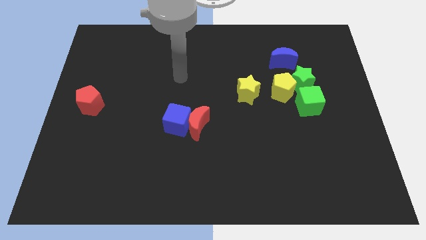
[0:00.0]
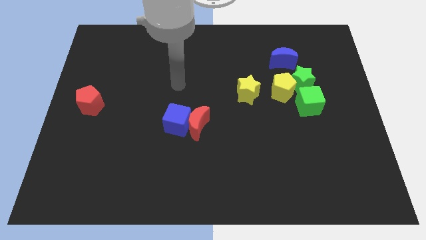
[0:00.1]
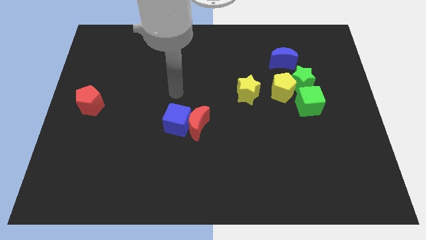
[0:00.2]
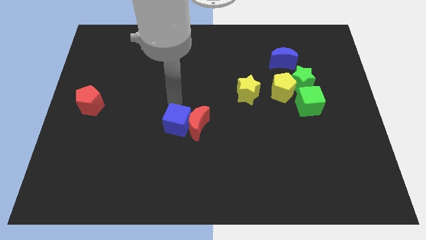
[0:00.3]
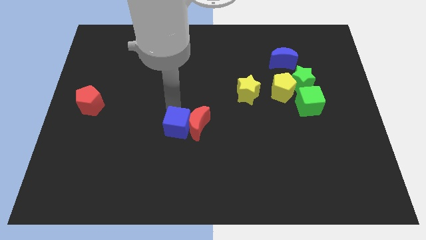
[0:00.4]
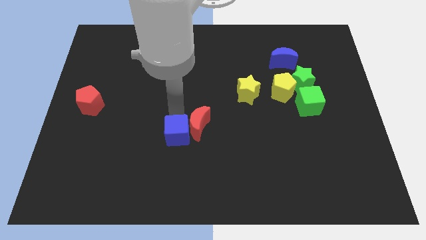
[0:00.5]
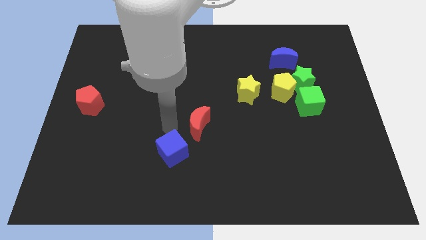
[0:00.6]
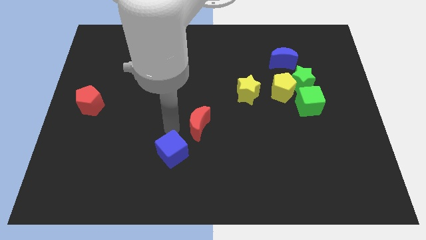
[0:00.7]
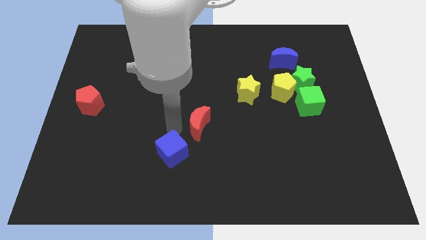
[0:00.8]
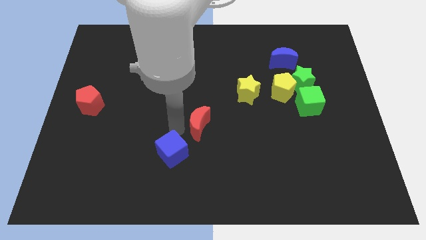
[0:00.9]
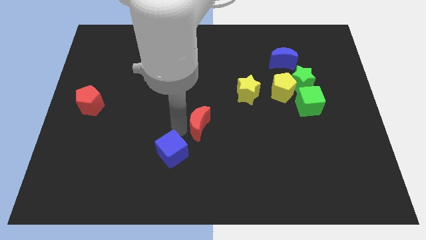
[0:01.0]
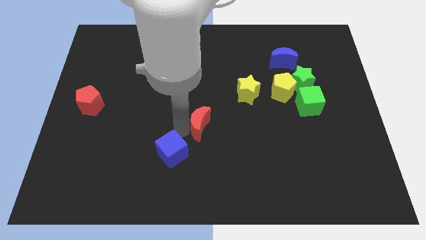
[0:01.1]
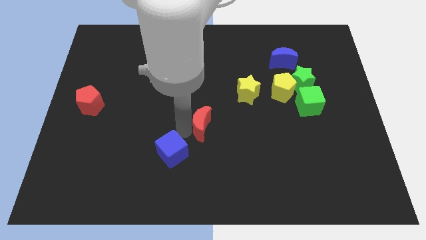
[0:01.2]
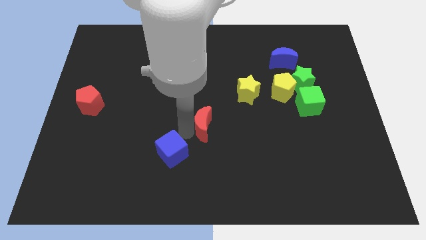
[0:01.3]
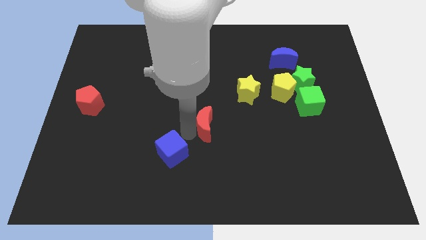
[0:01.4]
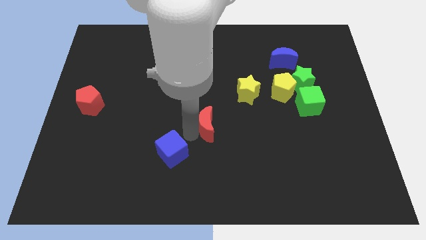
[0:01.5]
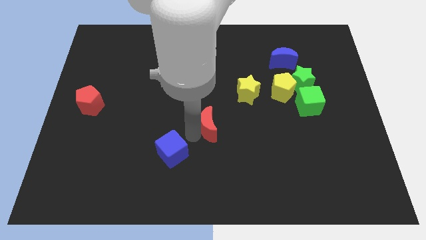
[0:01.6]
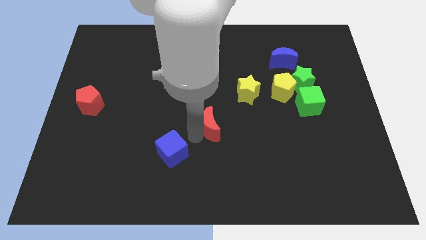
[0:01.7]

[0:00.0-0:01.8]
pull the red moon apart from the blue cube

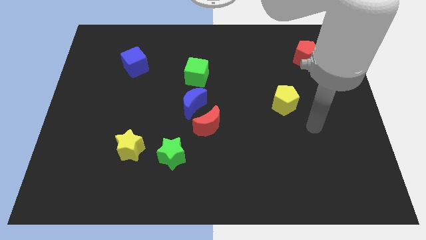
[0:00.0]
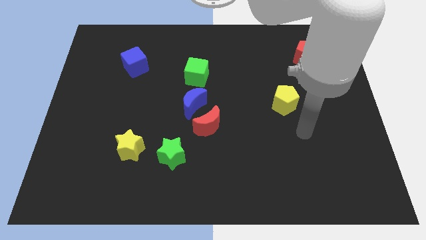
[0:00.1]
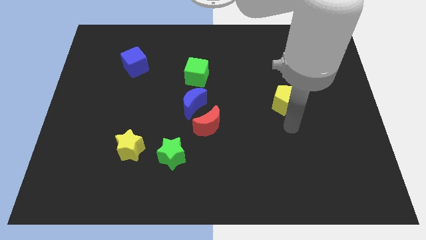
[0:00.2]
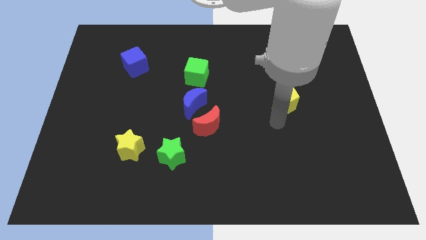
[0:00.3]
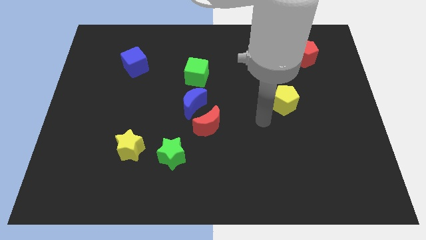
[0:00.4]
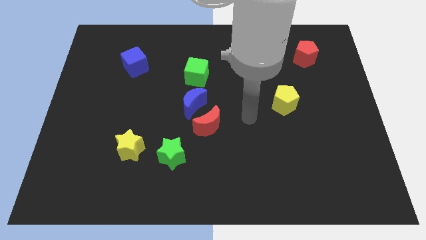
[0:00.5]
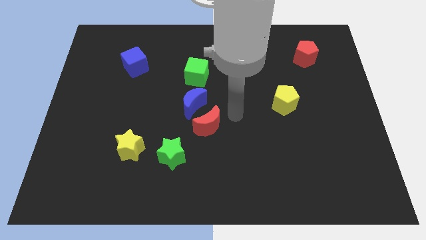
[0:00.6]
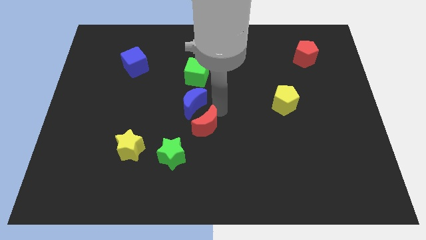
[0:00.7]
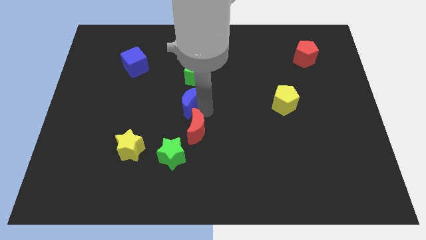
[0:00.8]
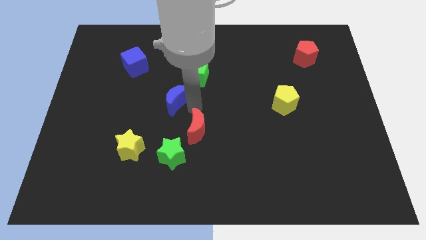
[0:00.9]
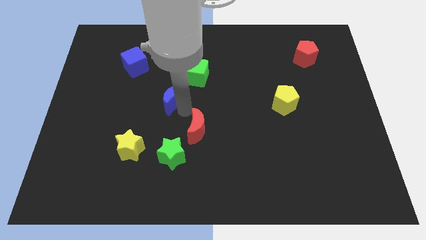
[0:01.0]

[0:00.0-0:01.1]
move the red moon away from the blue moon

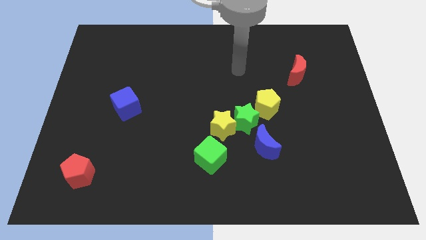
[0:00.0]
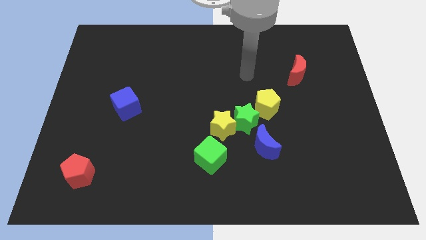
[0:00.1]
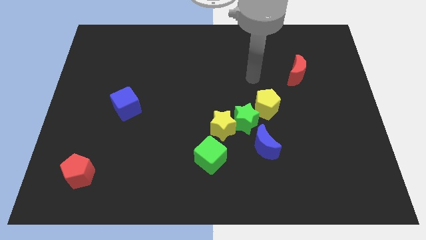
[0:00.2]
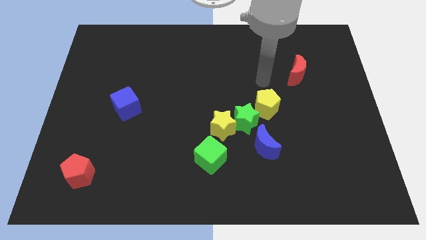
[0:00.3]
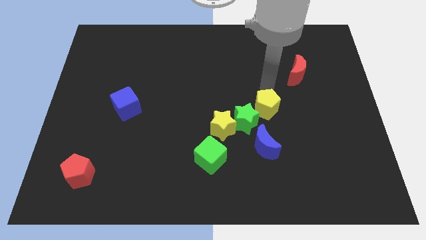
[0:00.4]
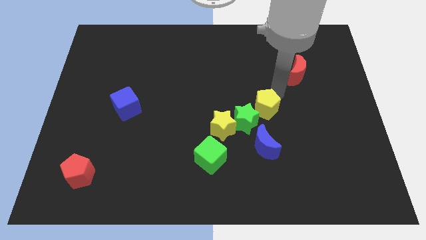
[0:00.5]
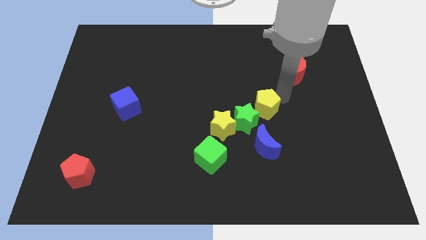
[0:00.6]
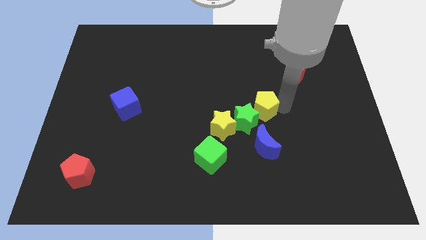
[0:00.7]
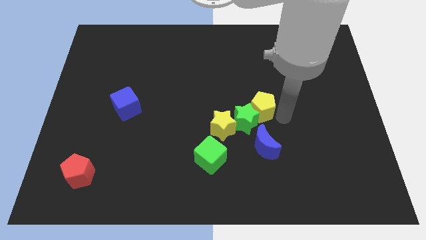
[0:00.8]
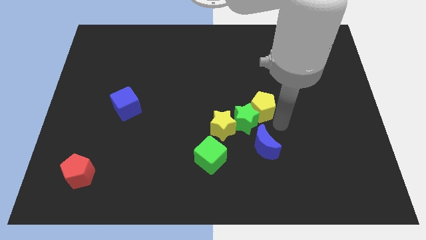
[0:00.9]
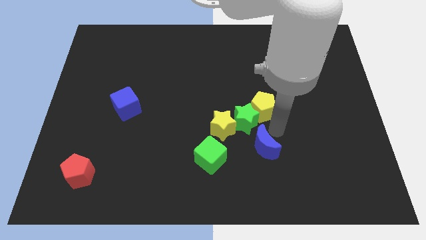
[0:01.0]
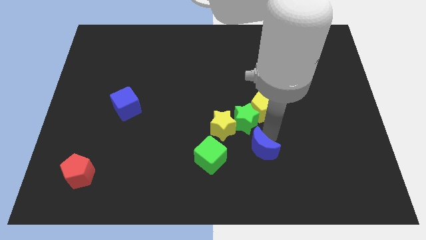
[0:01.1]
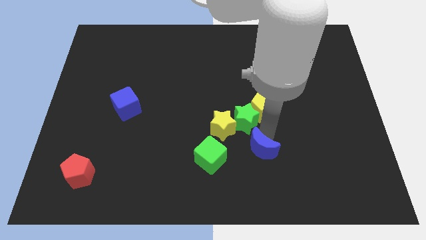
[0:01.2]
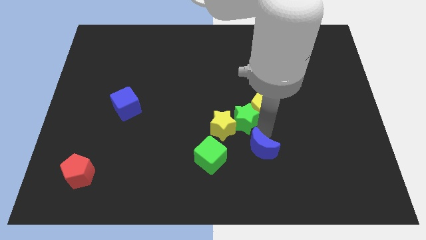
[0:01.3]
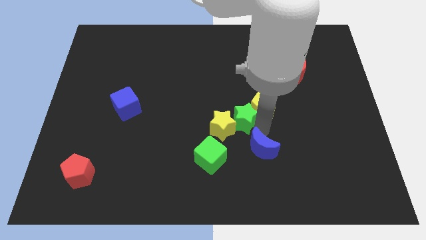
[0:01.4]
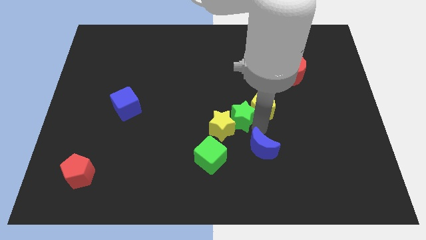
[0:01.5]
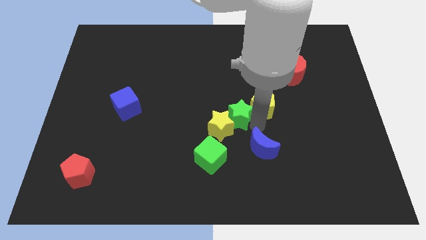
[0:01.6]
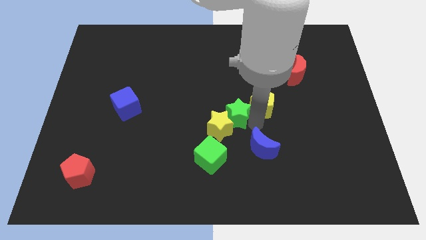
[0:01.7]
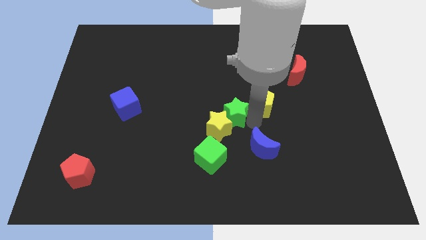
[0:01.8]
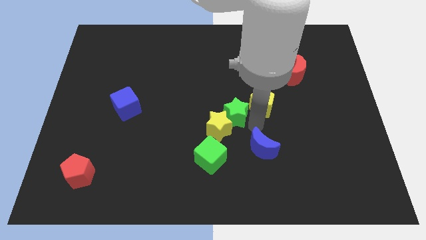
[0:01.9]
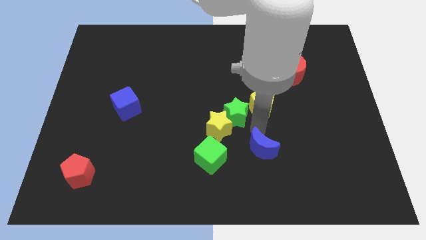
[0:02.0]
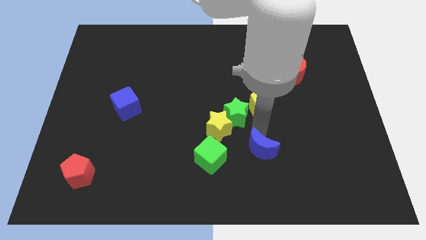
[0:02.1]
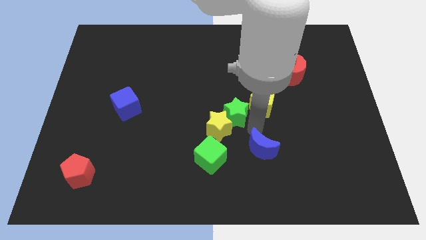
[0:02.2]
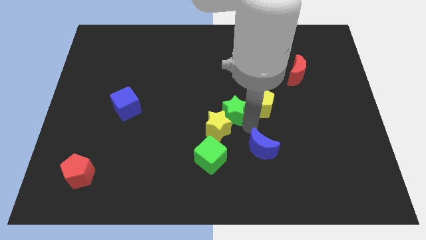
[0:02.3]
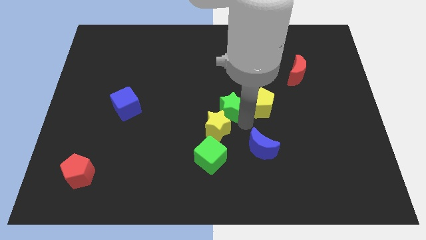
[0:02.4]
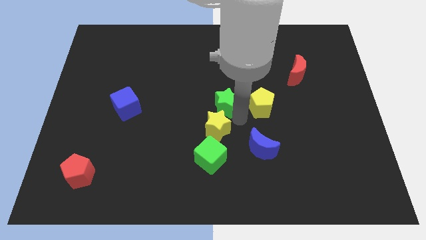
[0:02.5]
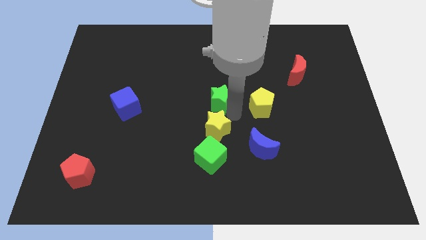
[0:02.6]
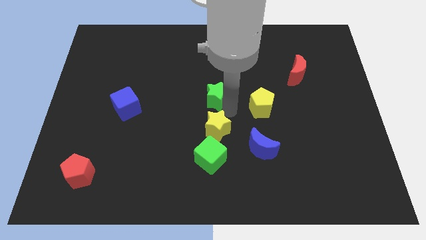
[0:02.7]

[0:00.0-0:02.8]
pull the green star apart from the group

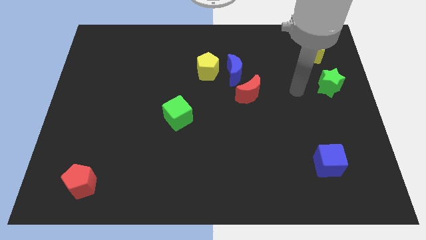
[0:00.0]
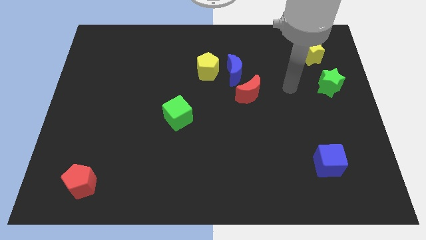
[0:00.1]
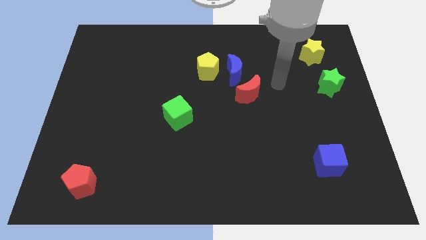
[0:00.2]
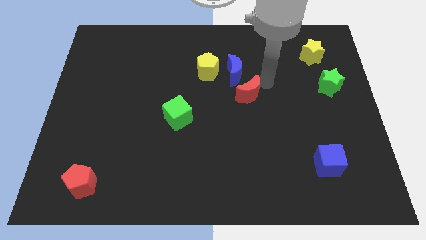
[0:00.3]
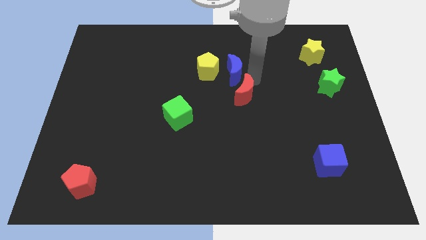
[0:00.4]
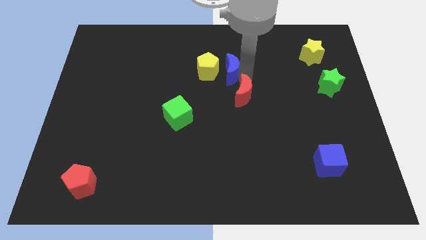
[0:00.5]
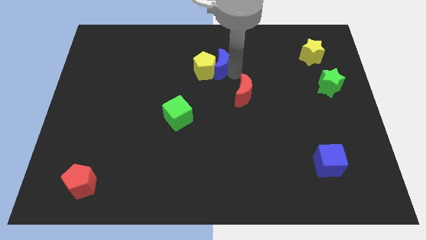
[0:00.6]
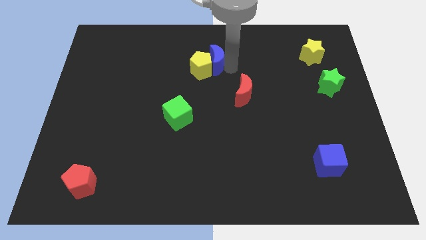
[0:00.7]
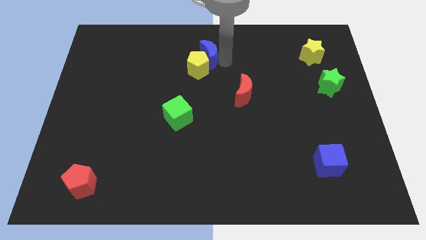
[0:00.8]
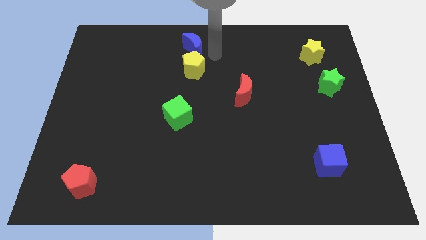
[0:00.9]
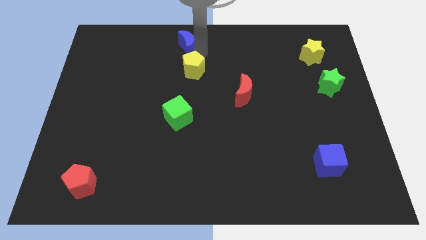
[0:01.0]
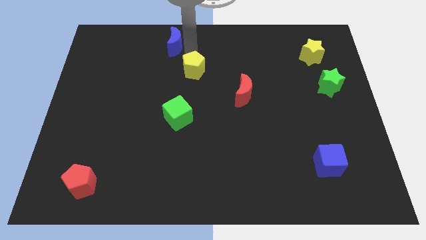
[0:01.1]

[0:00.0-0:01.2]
move the yellow pentagon away from the blue moon

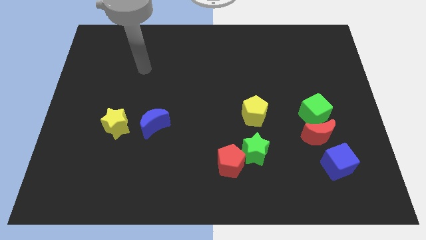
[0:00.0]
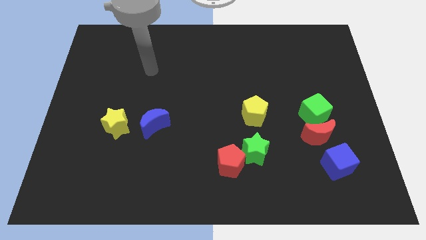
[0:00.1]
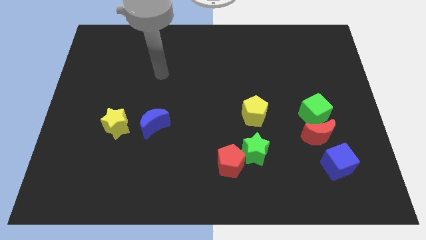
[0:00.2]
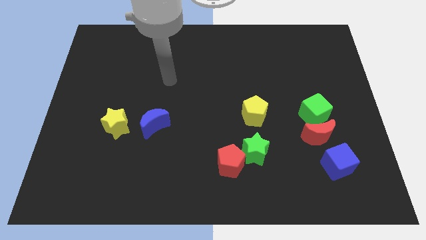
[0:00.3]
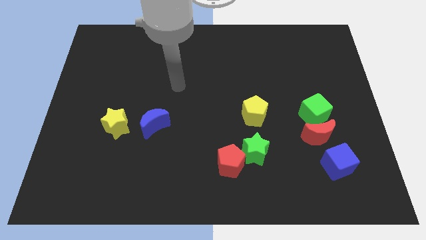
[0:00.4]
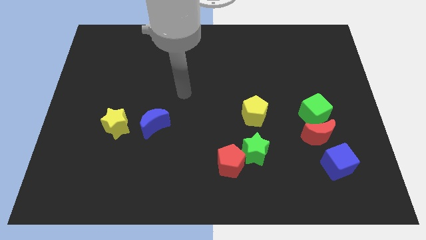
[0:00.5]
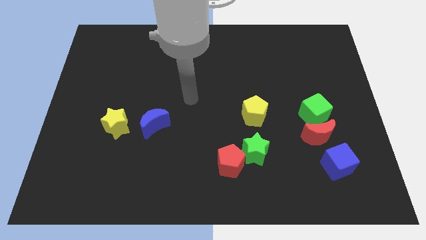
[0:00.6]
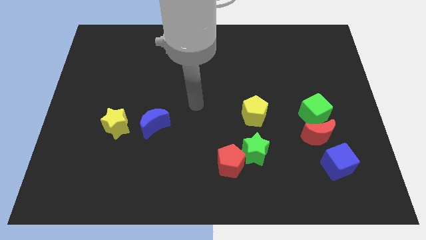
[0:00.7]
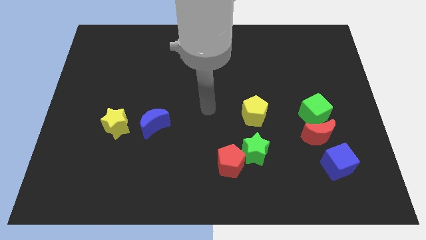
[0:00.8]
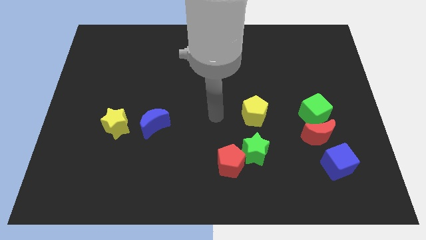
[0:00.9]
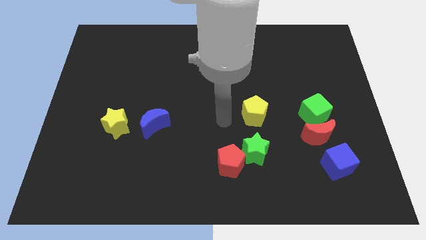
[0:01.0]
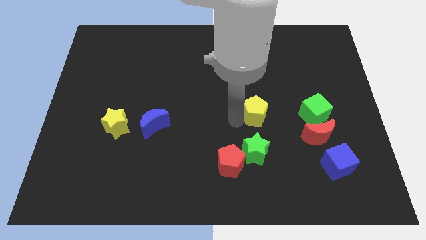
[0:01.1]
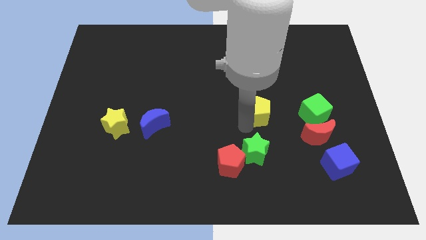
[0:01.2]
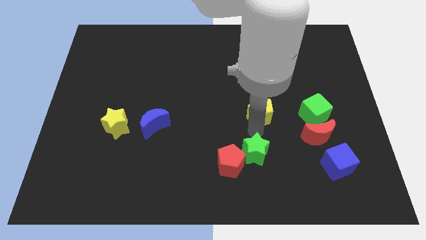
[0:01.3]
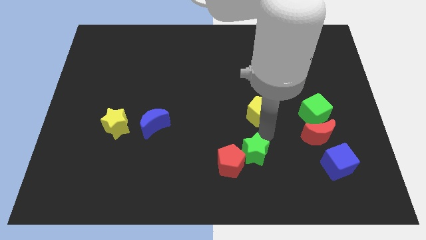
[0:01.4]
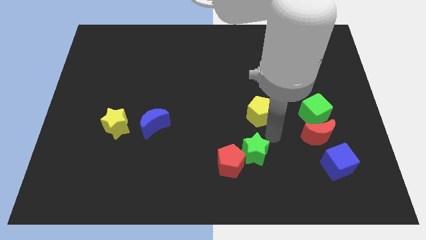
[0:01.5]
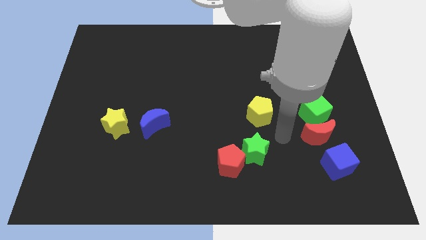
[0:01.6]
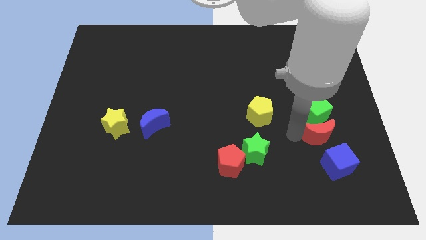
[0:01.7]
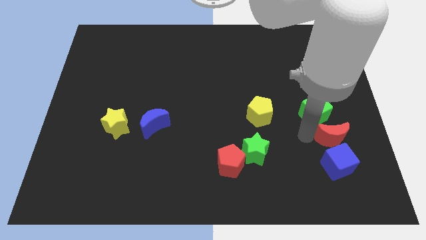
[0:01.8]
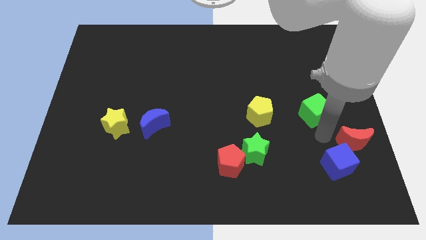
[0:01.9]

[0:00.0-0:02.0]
separate the green cube from the red moon

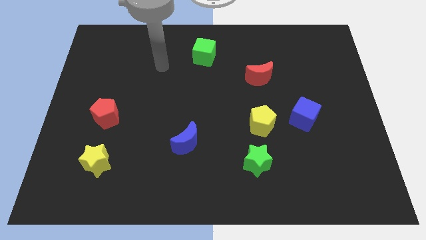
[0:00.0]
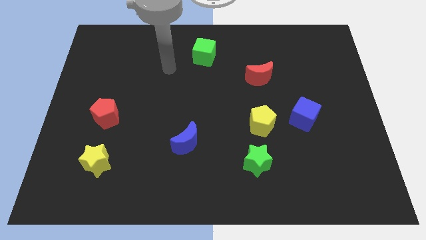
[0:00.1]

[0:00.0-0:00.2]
pull the green star apart from the yellow pentagon

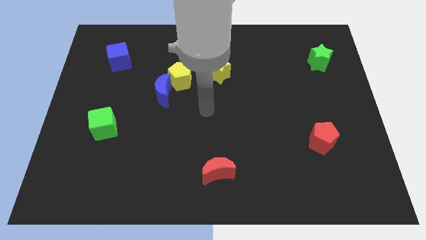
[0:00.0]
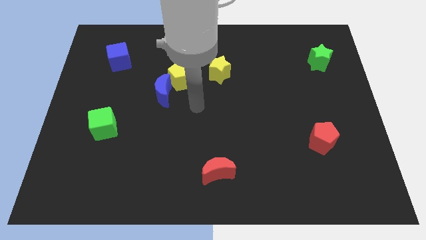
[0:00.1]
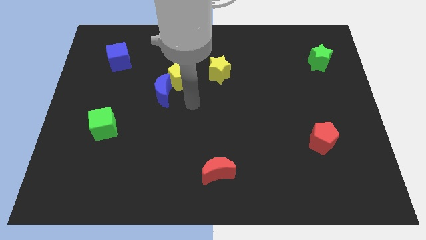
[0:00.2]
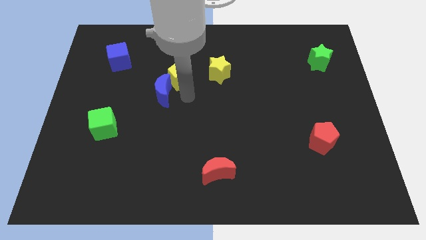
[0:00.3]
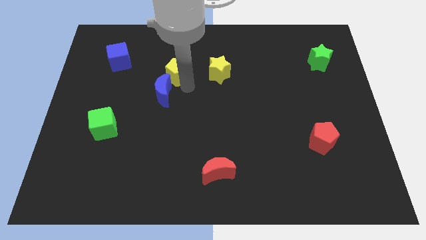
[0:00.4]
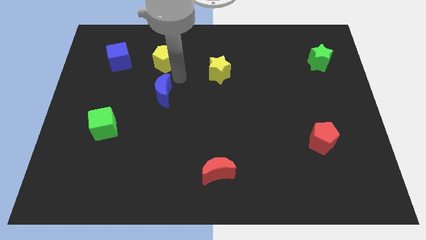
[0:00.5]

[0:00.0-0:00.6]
move the blue moon away from the yellow pentagon
